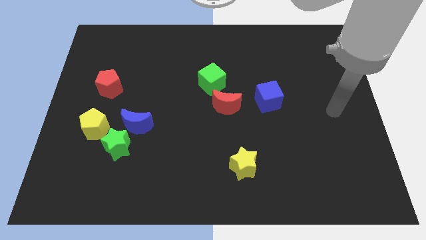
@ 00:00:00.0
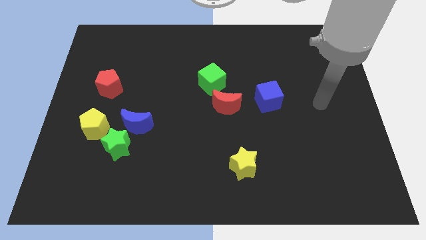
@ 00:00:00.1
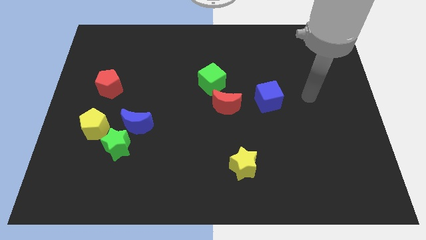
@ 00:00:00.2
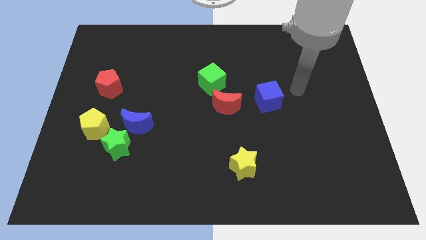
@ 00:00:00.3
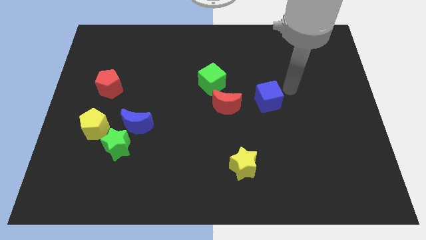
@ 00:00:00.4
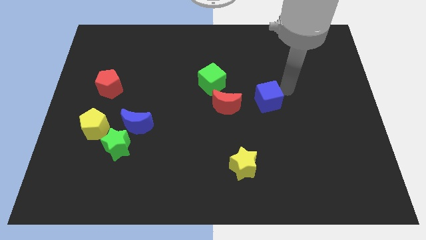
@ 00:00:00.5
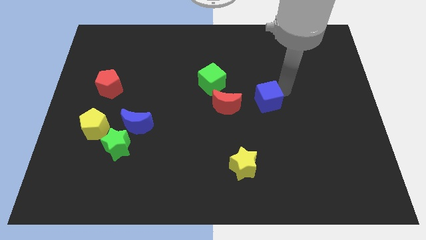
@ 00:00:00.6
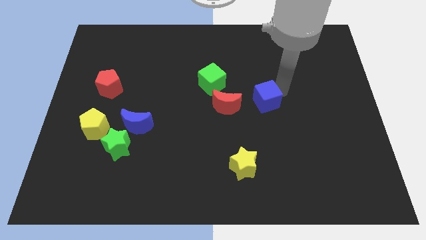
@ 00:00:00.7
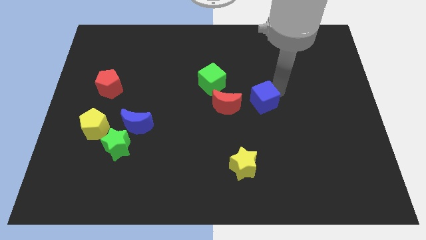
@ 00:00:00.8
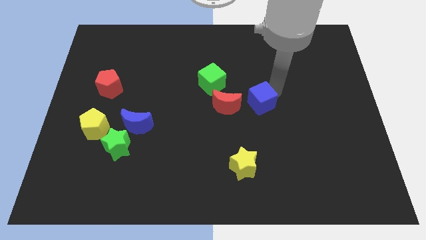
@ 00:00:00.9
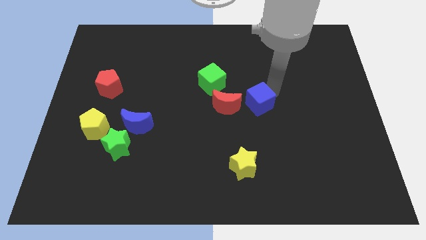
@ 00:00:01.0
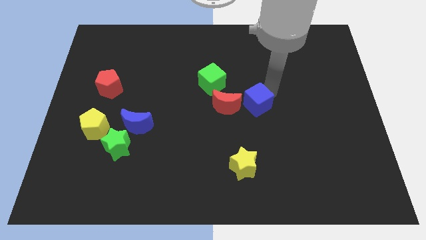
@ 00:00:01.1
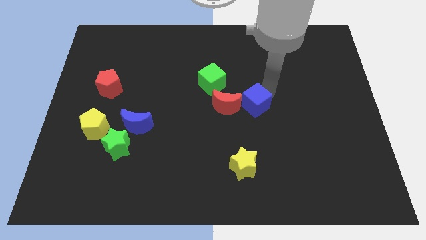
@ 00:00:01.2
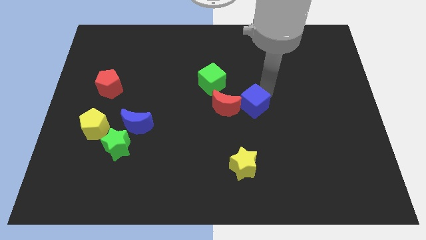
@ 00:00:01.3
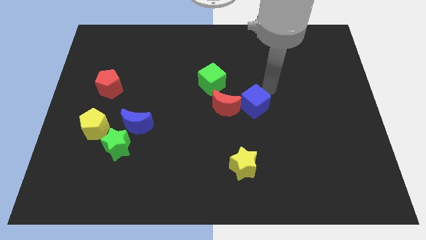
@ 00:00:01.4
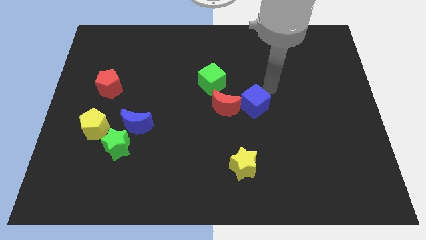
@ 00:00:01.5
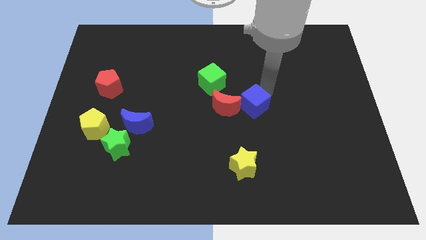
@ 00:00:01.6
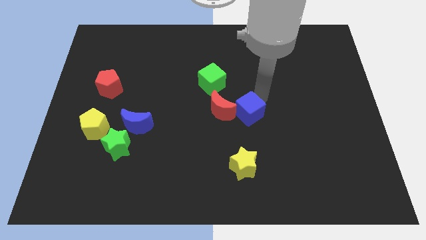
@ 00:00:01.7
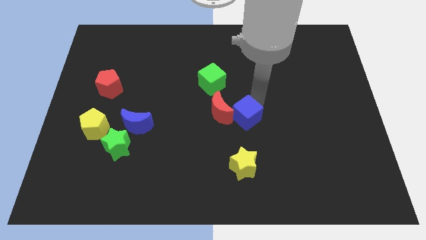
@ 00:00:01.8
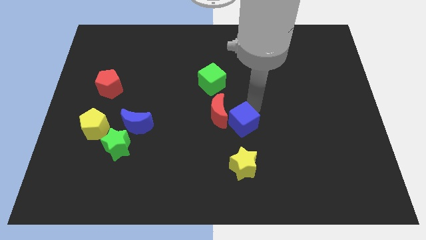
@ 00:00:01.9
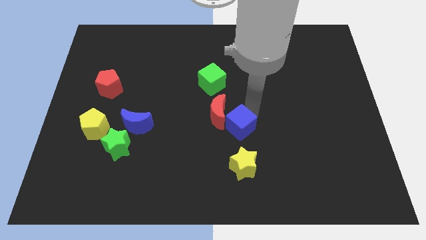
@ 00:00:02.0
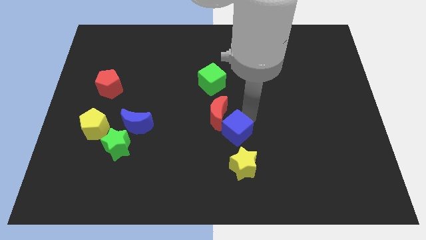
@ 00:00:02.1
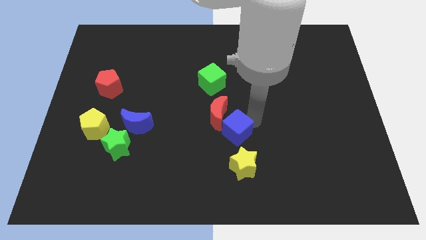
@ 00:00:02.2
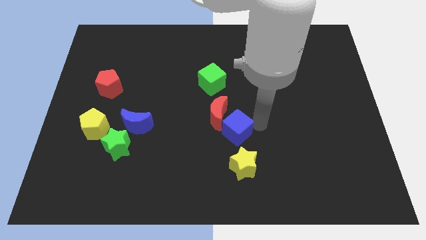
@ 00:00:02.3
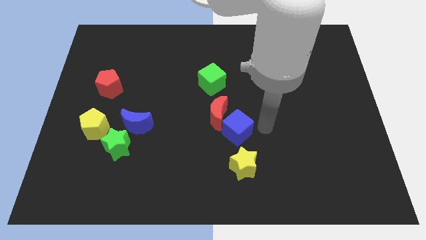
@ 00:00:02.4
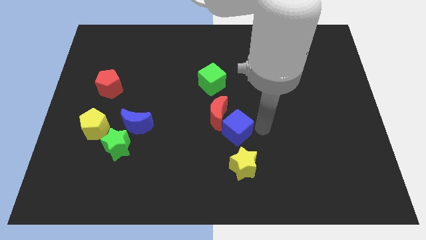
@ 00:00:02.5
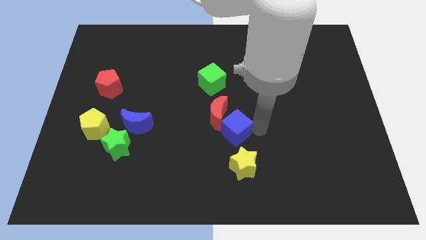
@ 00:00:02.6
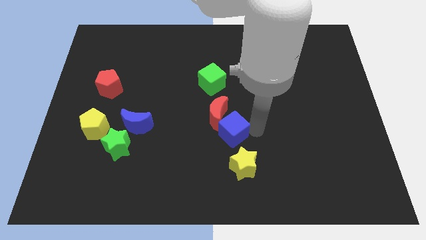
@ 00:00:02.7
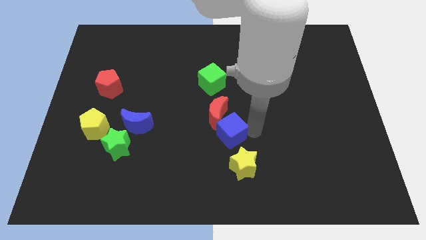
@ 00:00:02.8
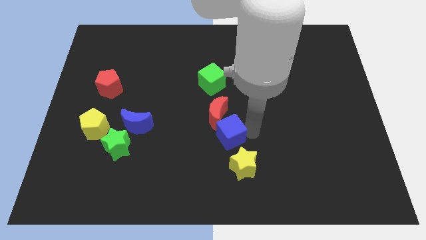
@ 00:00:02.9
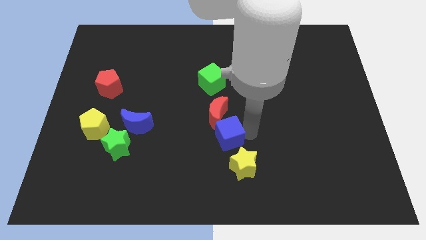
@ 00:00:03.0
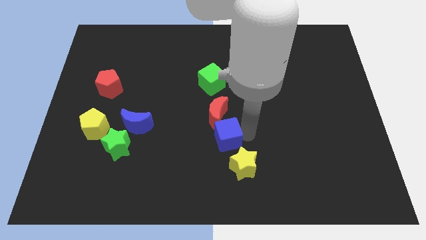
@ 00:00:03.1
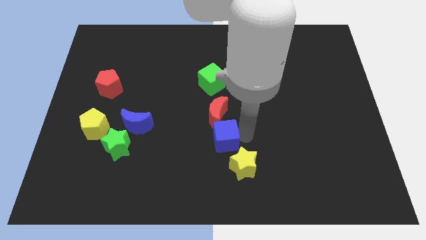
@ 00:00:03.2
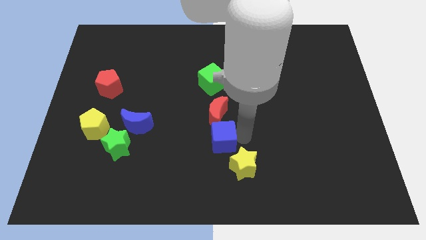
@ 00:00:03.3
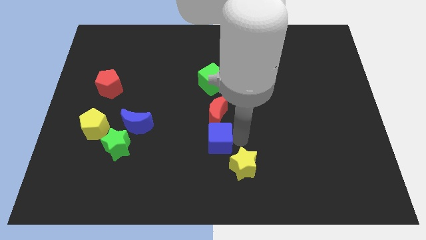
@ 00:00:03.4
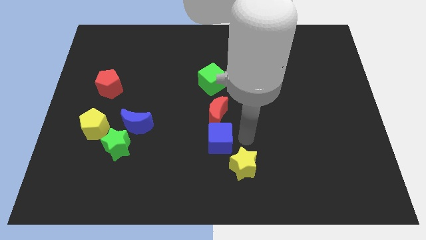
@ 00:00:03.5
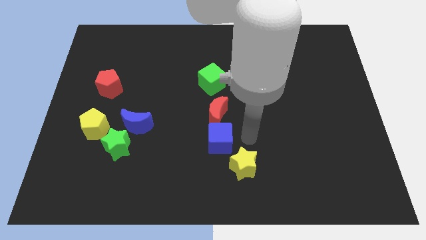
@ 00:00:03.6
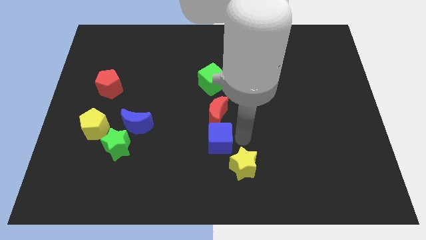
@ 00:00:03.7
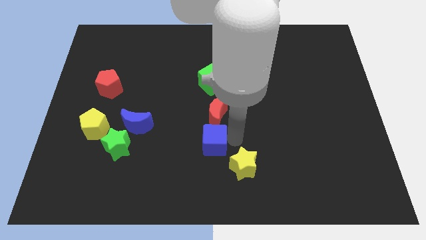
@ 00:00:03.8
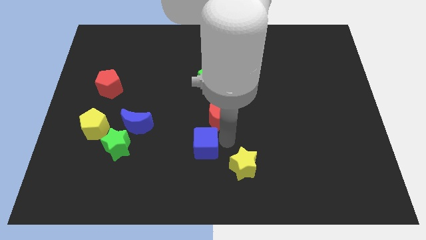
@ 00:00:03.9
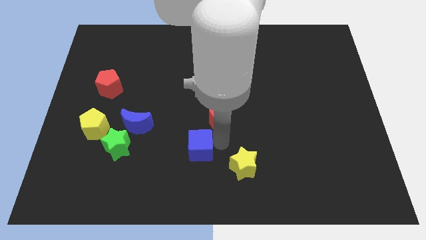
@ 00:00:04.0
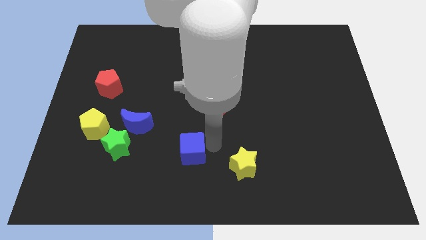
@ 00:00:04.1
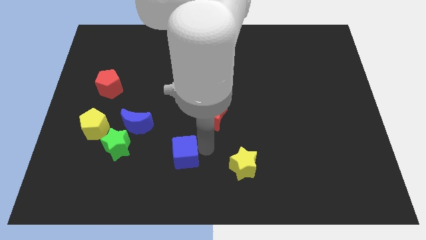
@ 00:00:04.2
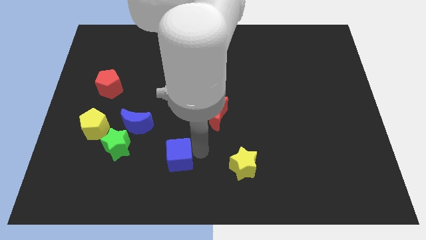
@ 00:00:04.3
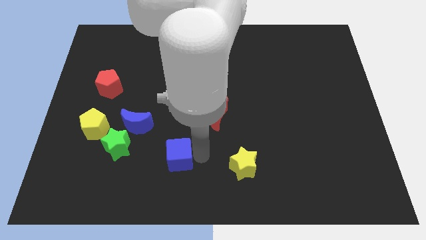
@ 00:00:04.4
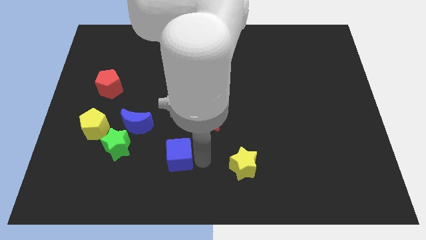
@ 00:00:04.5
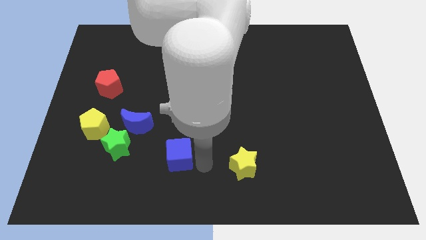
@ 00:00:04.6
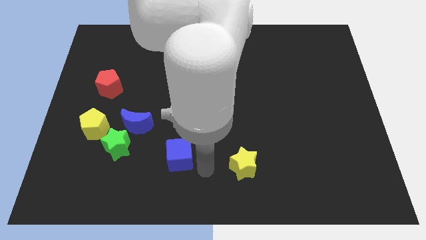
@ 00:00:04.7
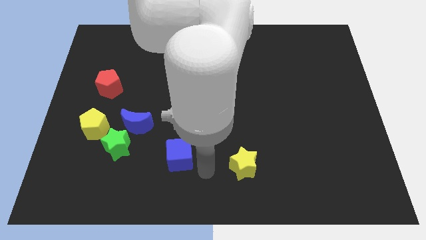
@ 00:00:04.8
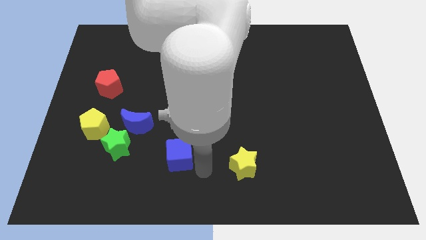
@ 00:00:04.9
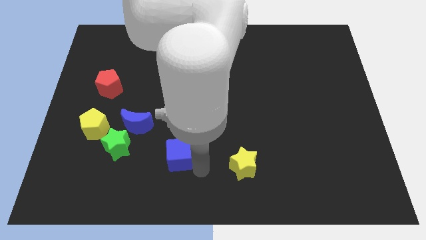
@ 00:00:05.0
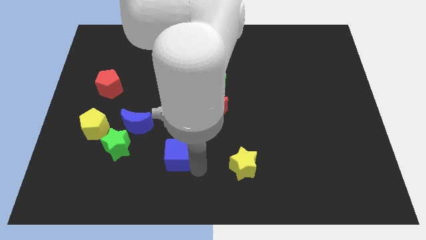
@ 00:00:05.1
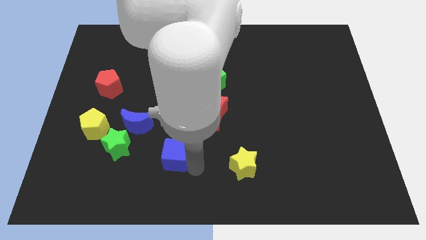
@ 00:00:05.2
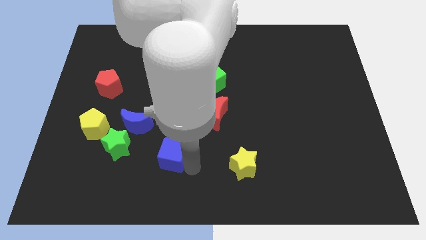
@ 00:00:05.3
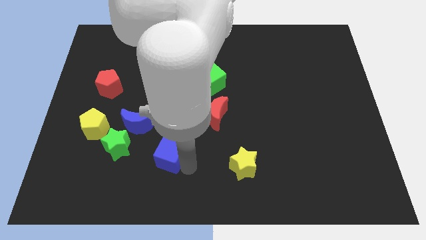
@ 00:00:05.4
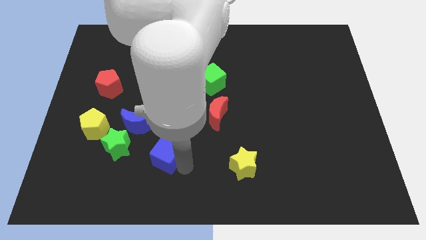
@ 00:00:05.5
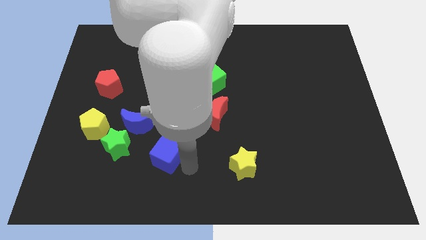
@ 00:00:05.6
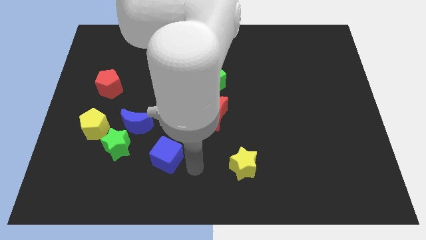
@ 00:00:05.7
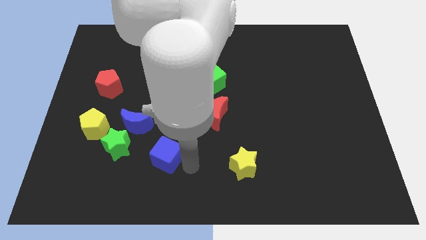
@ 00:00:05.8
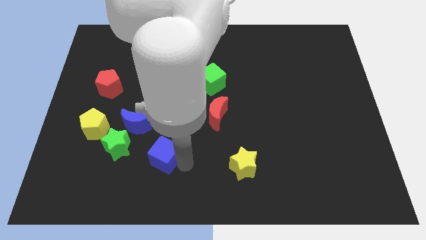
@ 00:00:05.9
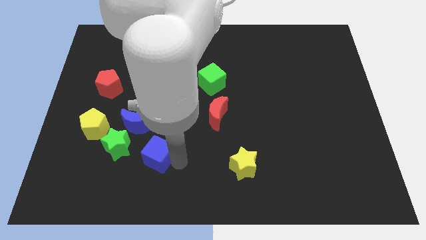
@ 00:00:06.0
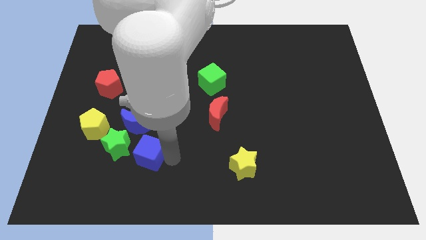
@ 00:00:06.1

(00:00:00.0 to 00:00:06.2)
put the blue cube to the bottom of the blue moon

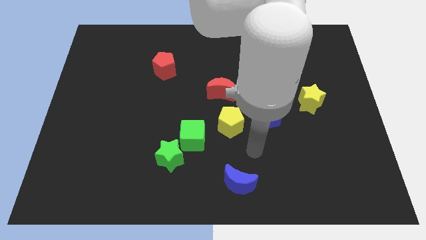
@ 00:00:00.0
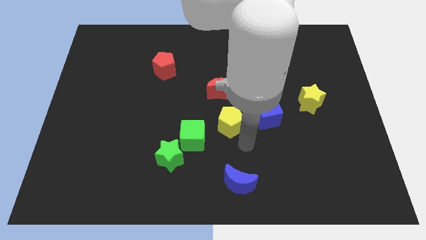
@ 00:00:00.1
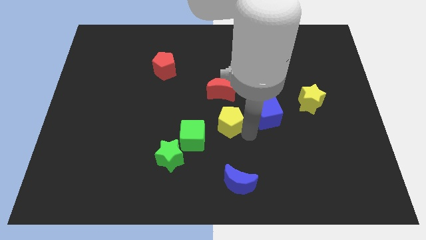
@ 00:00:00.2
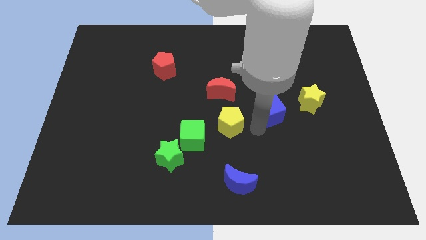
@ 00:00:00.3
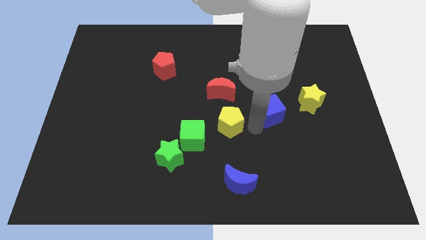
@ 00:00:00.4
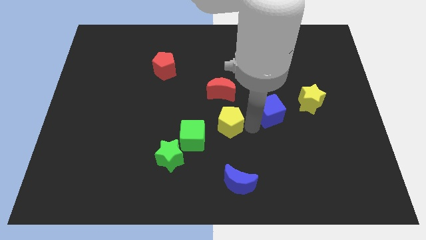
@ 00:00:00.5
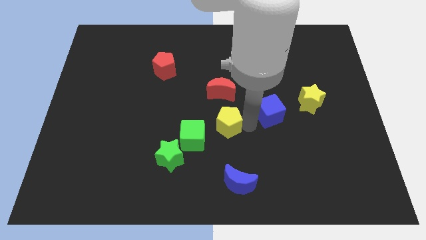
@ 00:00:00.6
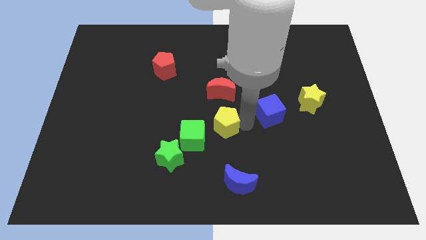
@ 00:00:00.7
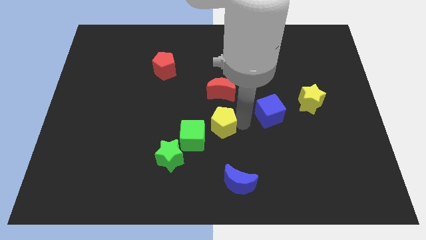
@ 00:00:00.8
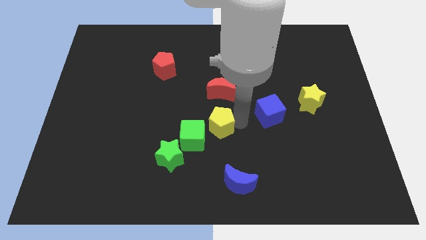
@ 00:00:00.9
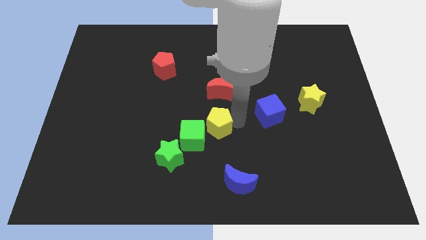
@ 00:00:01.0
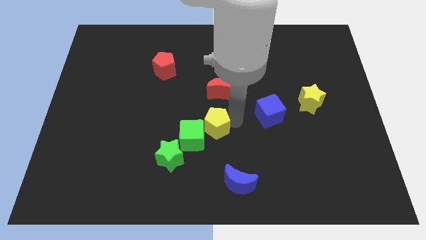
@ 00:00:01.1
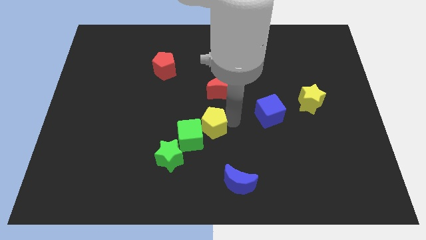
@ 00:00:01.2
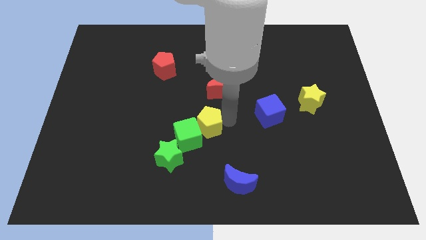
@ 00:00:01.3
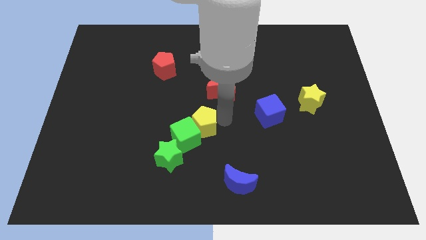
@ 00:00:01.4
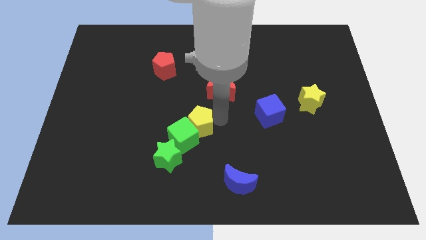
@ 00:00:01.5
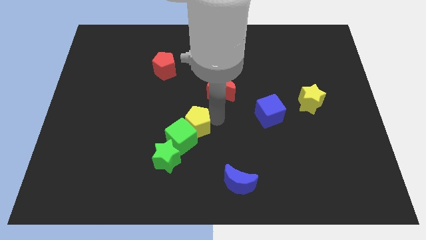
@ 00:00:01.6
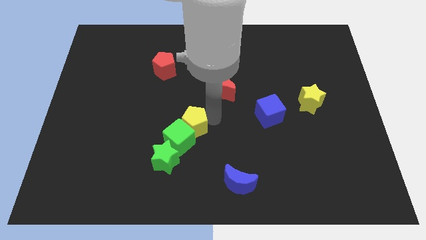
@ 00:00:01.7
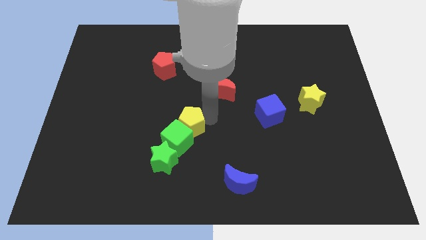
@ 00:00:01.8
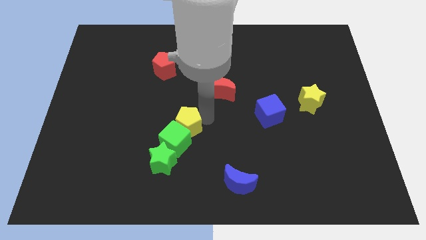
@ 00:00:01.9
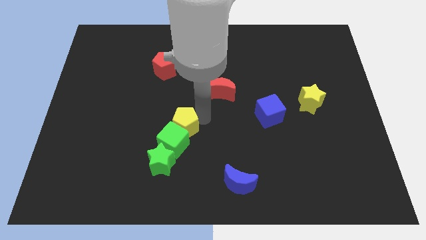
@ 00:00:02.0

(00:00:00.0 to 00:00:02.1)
push the yellow pentagon above the green star
